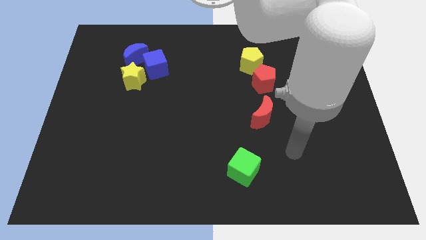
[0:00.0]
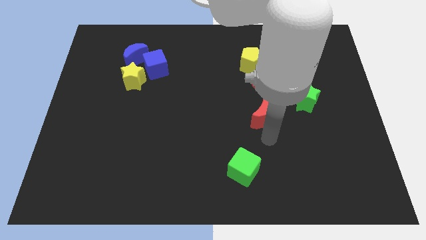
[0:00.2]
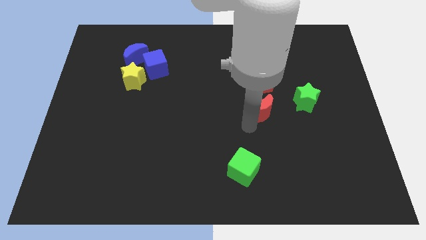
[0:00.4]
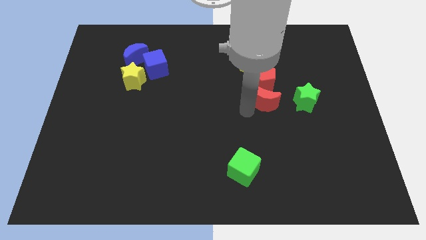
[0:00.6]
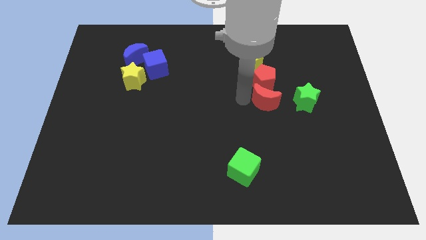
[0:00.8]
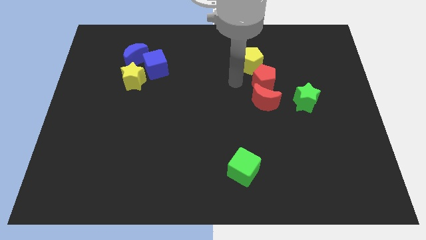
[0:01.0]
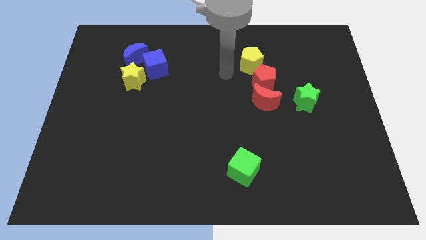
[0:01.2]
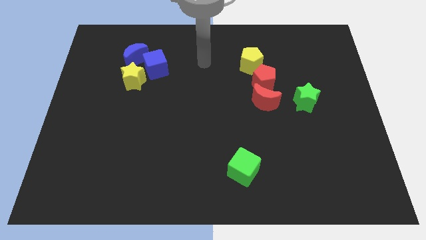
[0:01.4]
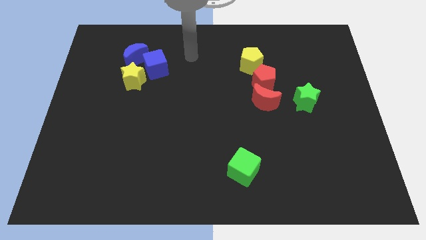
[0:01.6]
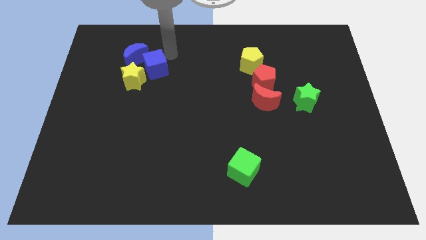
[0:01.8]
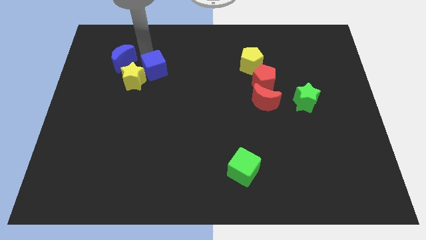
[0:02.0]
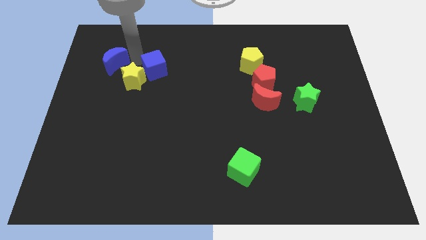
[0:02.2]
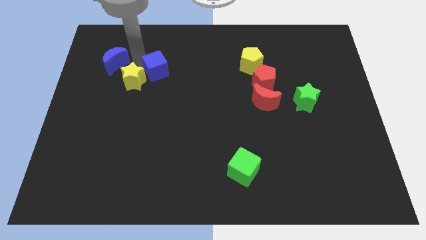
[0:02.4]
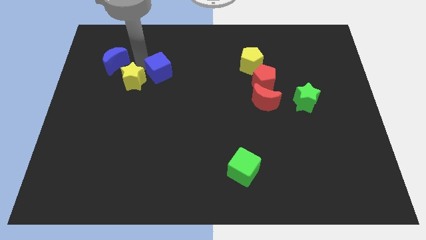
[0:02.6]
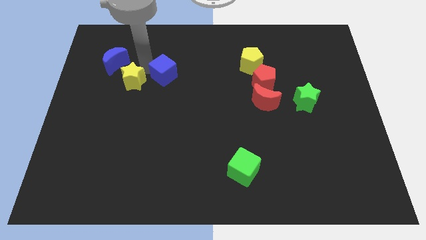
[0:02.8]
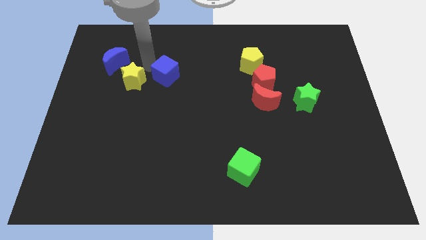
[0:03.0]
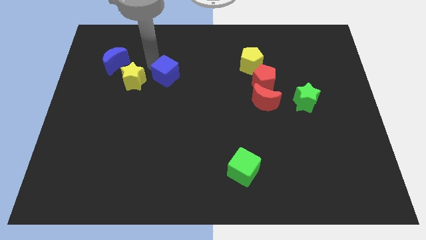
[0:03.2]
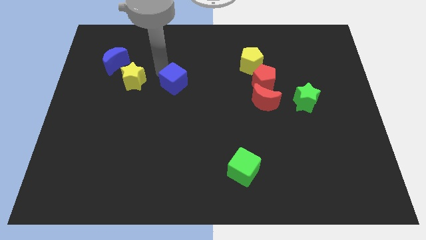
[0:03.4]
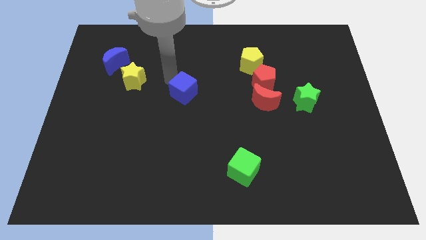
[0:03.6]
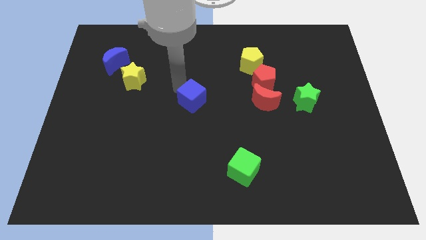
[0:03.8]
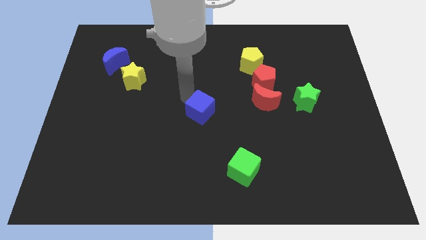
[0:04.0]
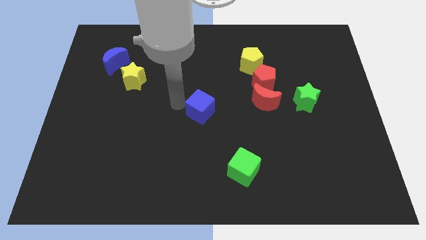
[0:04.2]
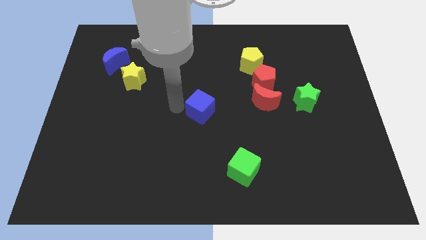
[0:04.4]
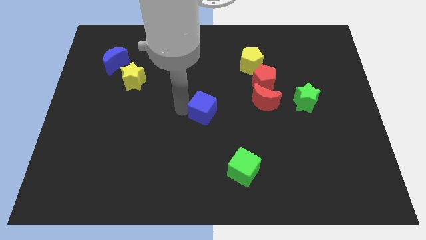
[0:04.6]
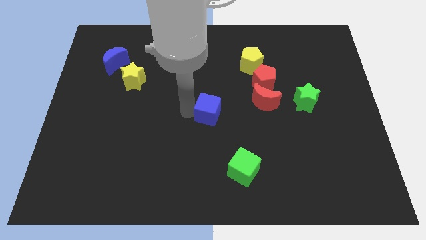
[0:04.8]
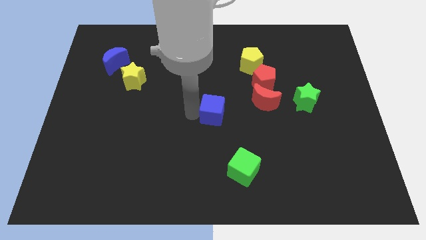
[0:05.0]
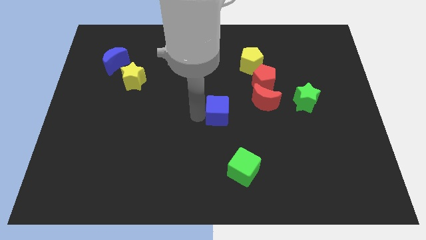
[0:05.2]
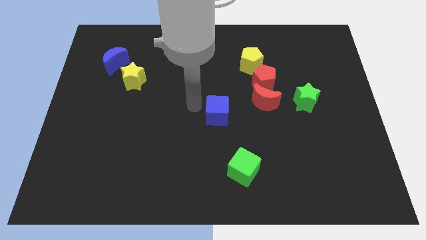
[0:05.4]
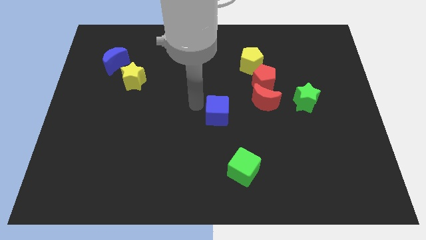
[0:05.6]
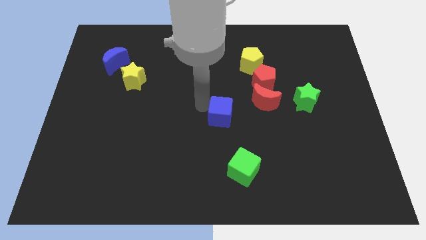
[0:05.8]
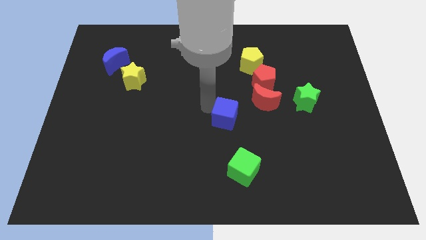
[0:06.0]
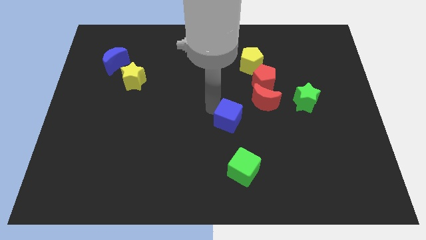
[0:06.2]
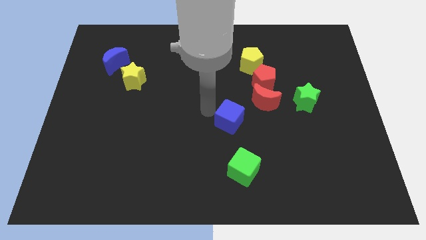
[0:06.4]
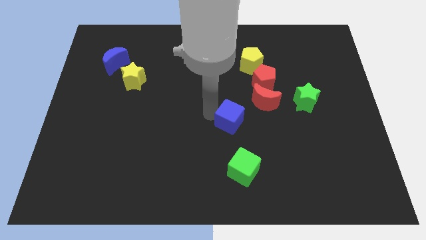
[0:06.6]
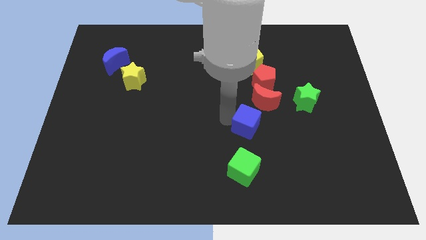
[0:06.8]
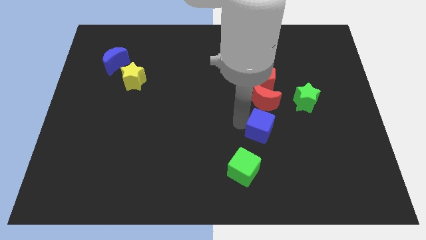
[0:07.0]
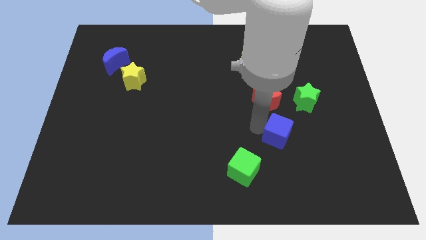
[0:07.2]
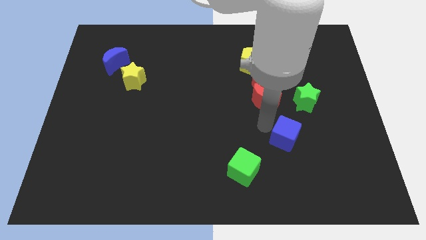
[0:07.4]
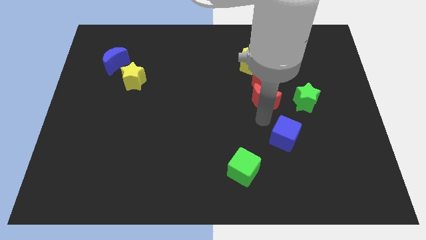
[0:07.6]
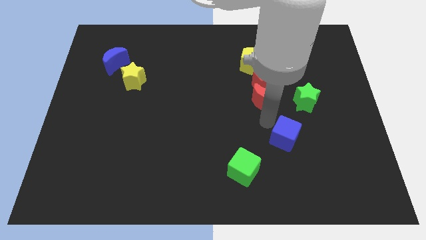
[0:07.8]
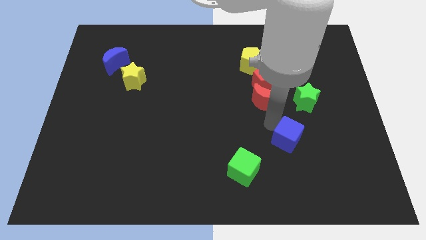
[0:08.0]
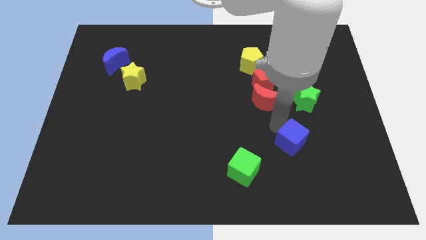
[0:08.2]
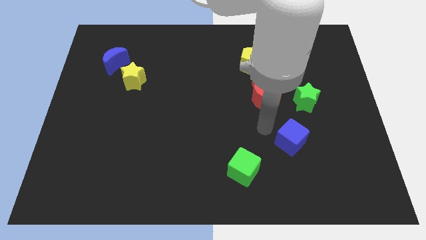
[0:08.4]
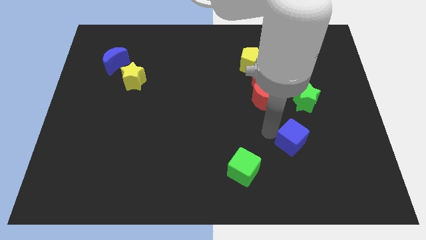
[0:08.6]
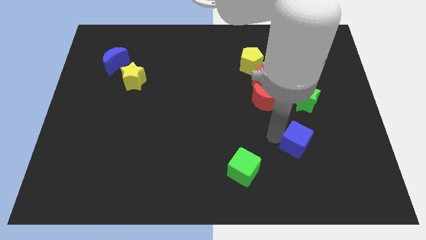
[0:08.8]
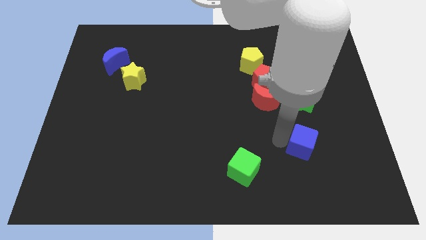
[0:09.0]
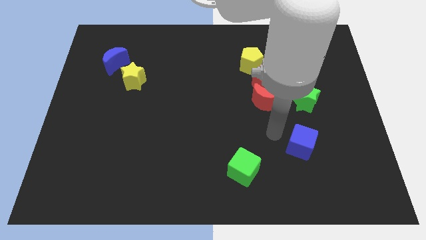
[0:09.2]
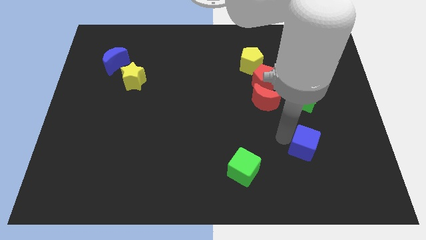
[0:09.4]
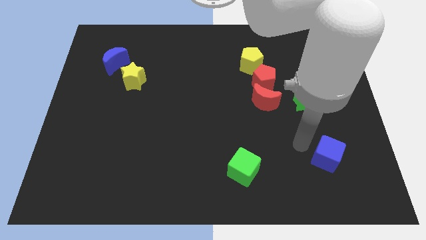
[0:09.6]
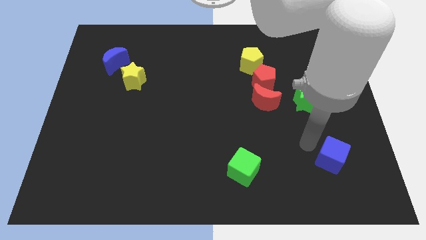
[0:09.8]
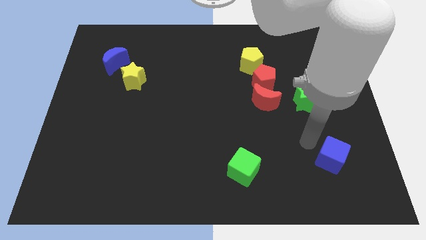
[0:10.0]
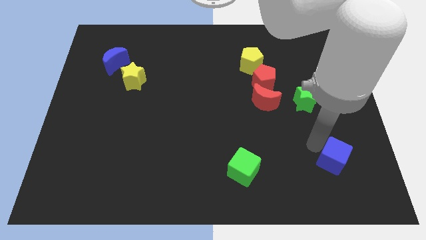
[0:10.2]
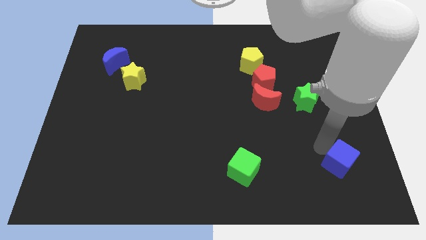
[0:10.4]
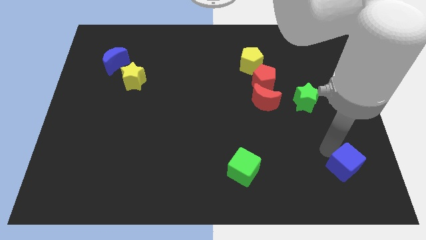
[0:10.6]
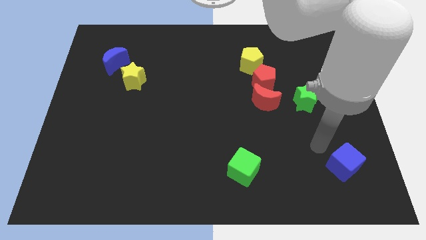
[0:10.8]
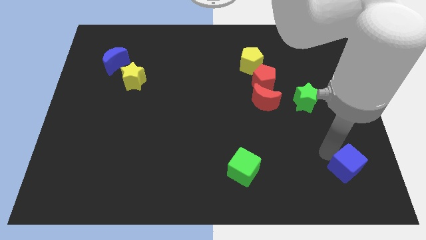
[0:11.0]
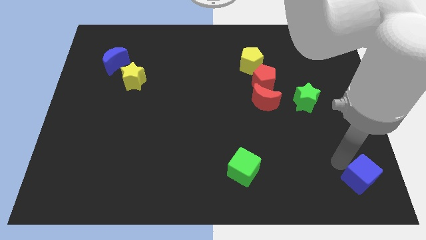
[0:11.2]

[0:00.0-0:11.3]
put the blue cube to the bottom right

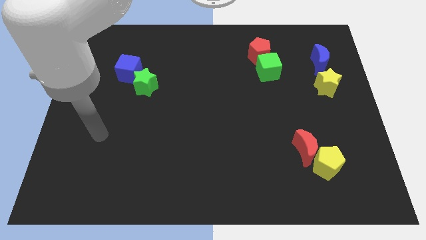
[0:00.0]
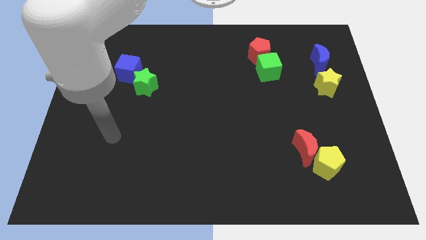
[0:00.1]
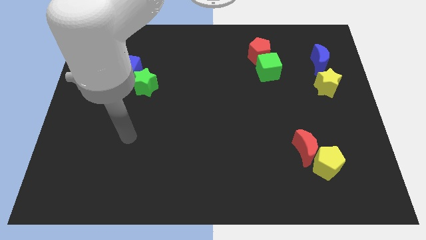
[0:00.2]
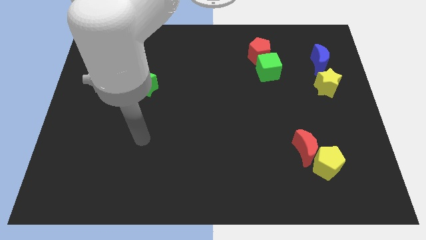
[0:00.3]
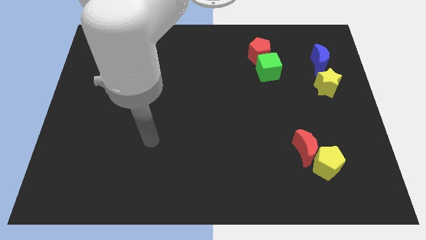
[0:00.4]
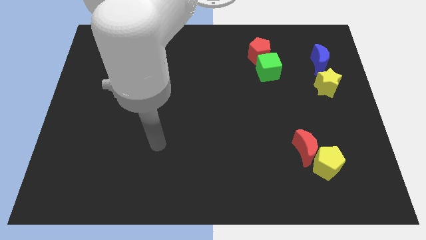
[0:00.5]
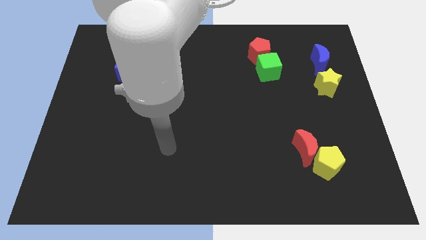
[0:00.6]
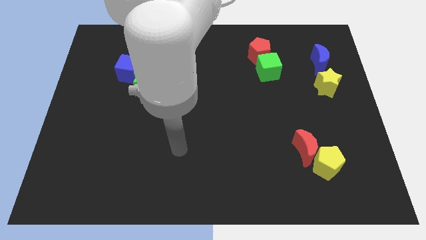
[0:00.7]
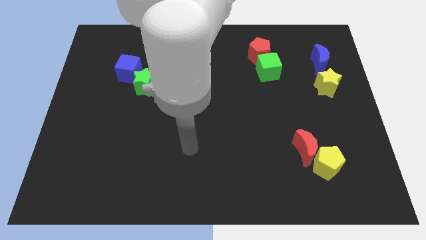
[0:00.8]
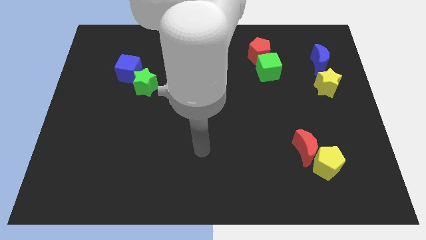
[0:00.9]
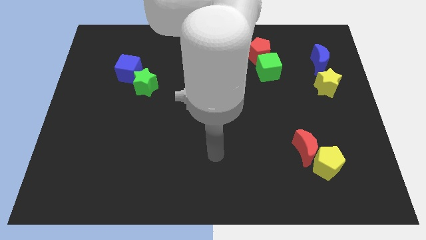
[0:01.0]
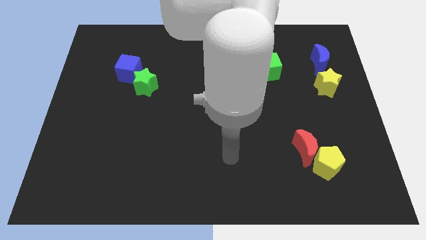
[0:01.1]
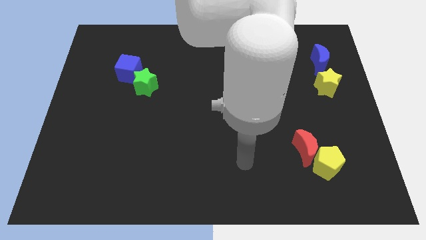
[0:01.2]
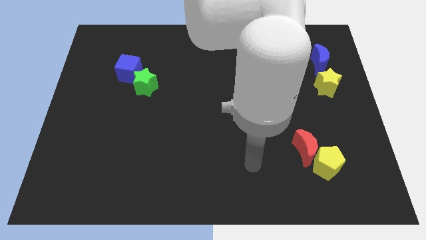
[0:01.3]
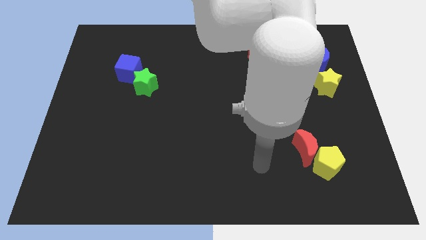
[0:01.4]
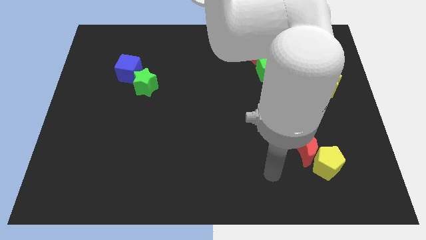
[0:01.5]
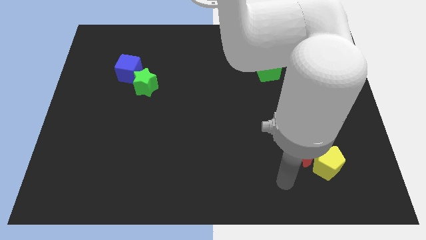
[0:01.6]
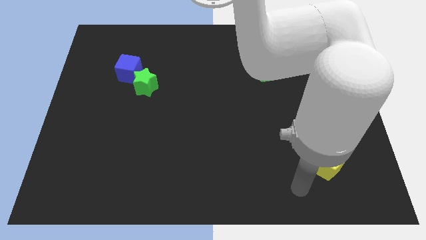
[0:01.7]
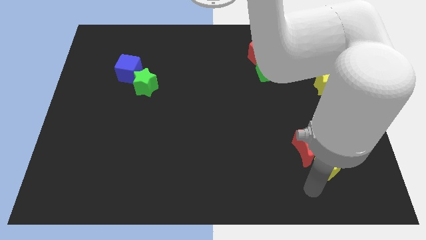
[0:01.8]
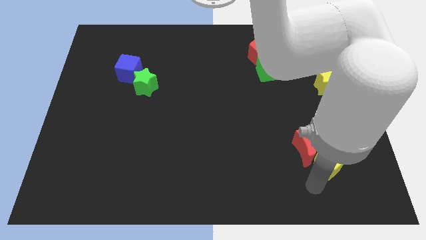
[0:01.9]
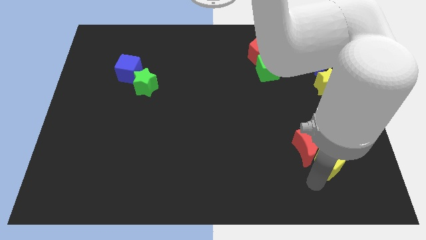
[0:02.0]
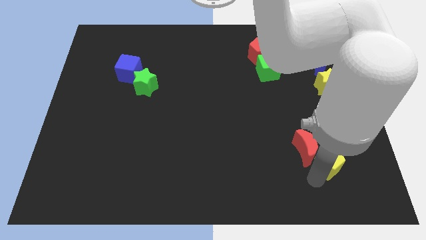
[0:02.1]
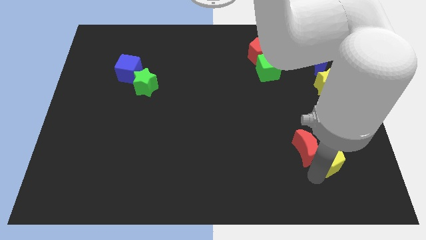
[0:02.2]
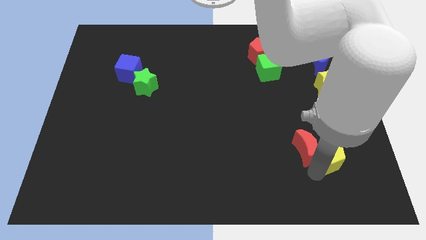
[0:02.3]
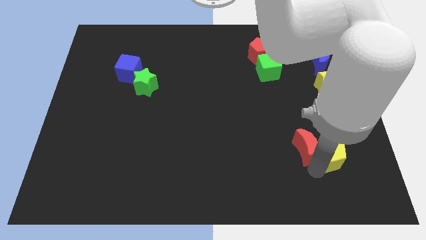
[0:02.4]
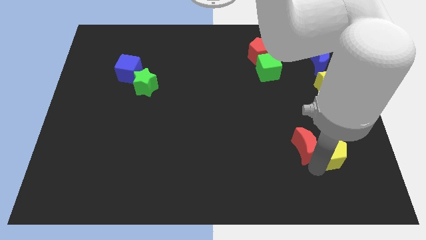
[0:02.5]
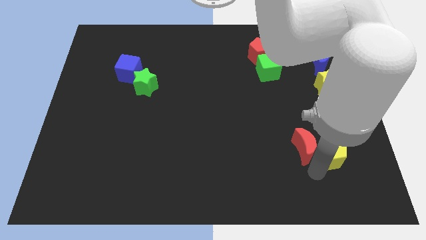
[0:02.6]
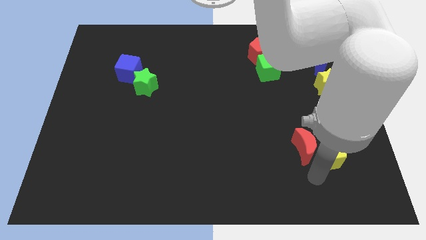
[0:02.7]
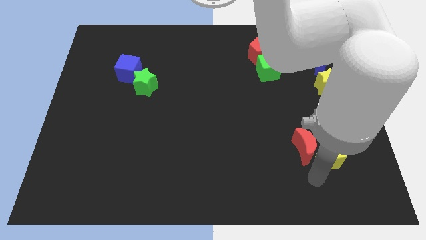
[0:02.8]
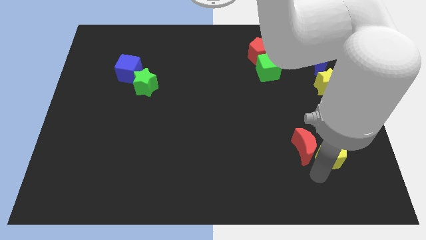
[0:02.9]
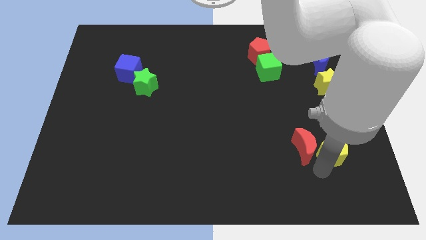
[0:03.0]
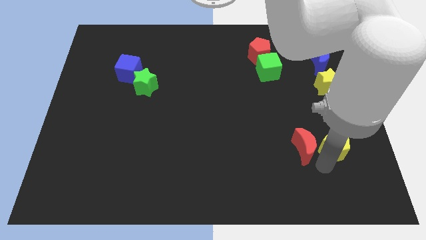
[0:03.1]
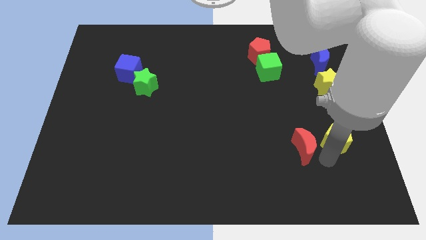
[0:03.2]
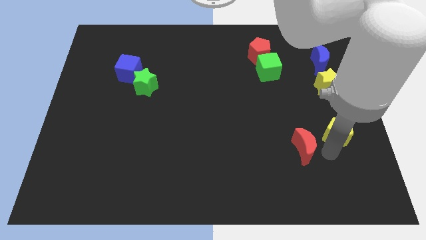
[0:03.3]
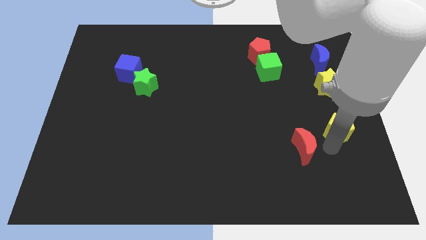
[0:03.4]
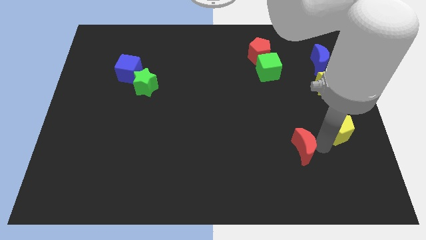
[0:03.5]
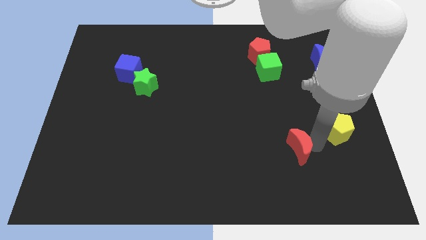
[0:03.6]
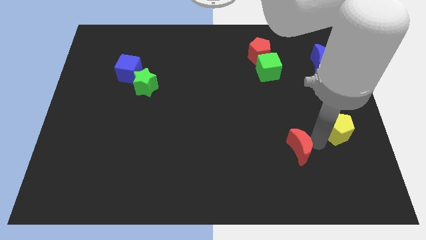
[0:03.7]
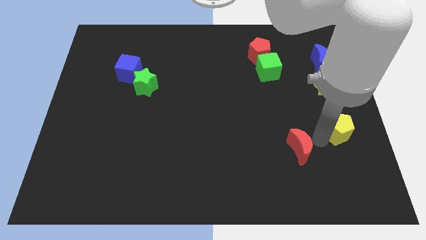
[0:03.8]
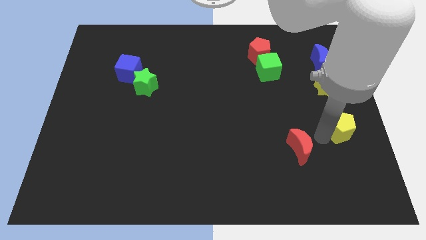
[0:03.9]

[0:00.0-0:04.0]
slide the yellow pentagon to the center right
